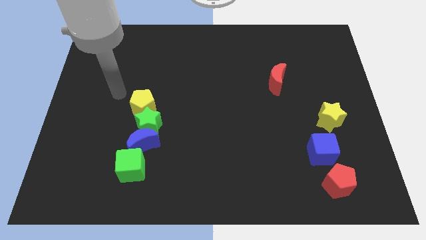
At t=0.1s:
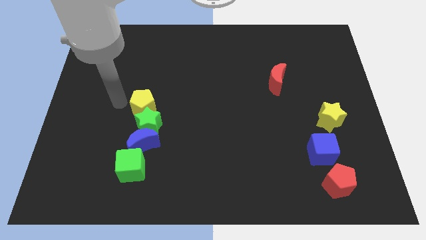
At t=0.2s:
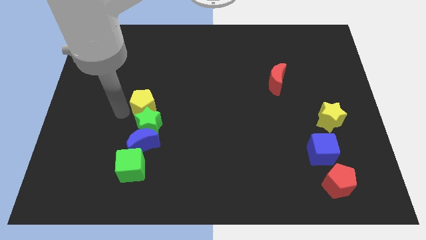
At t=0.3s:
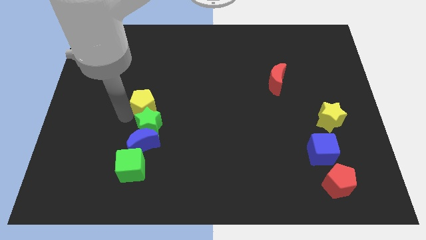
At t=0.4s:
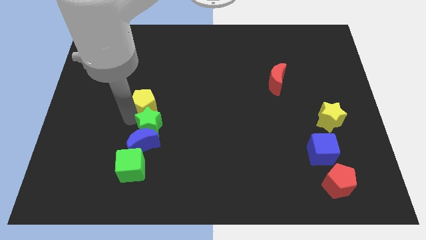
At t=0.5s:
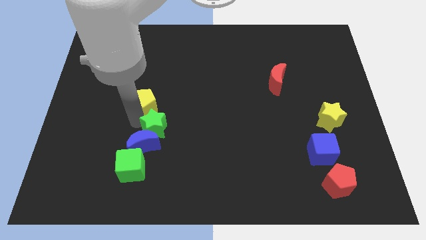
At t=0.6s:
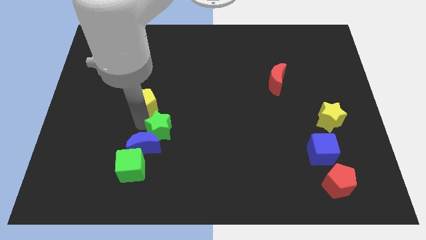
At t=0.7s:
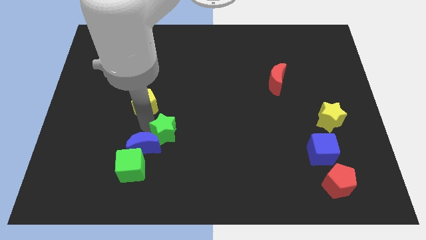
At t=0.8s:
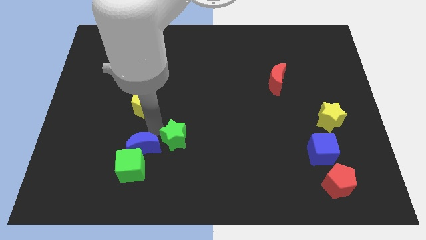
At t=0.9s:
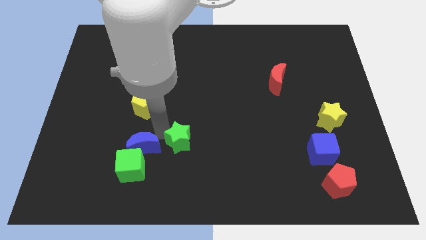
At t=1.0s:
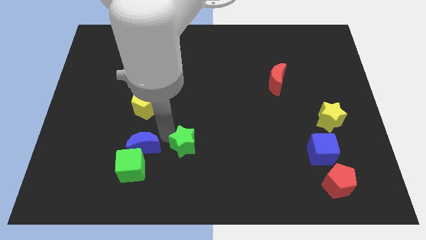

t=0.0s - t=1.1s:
separate the green star from the blue moon and yellow pentagon

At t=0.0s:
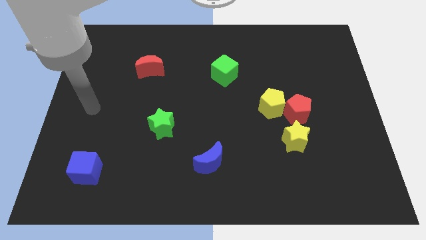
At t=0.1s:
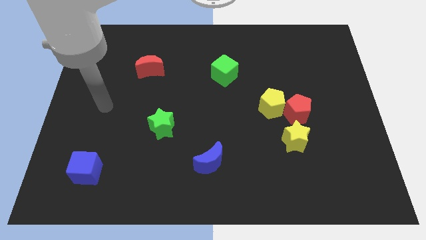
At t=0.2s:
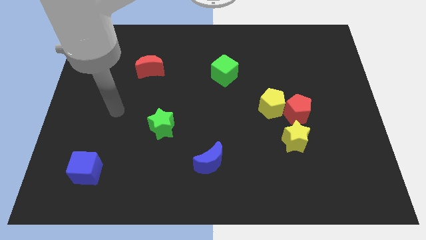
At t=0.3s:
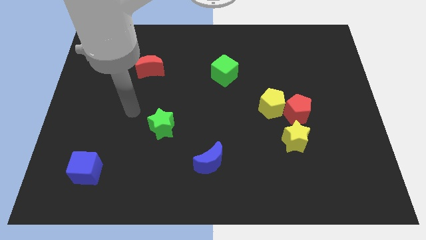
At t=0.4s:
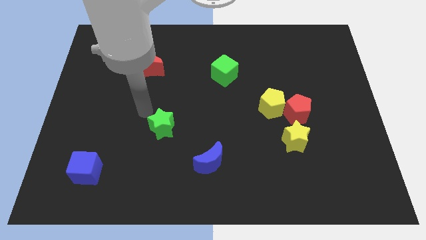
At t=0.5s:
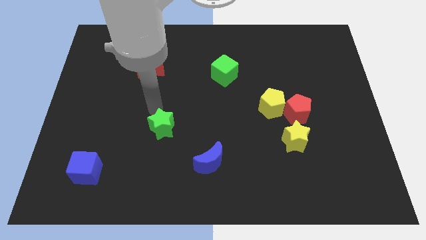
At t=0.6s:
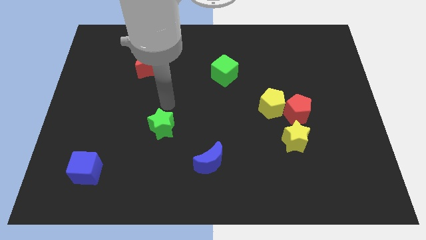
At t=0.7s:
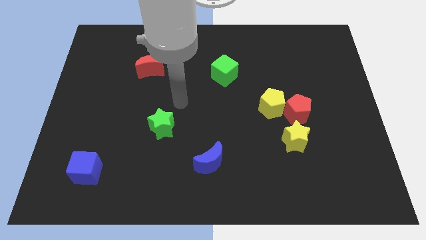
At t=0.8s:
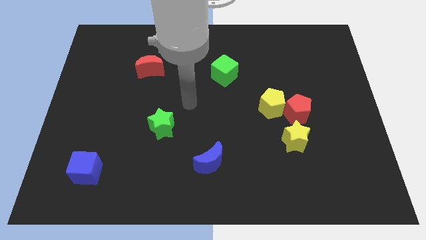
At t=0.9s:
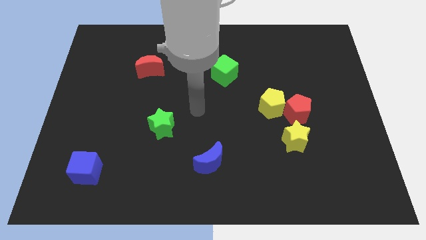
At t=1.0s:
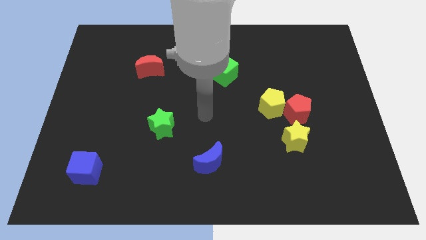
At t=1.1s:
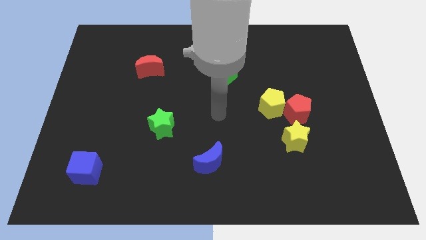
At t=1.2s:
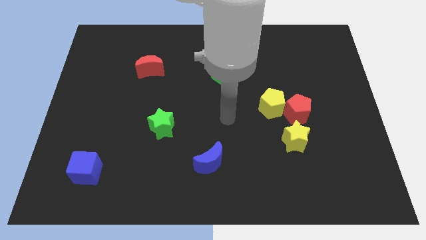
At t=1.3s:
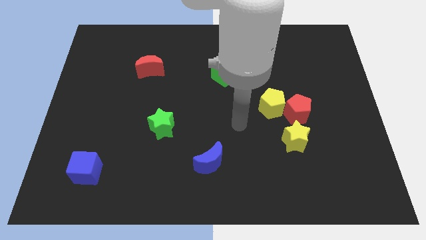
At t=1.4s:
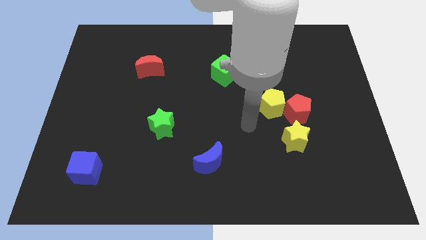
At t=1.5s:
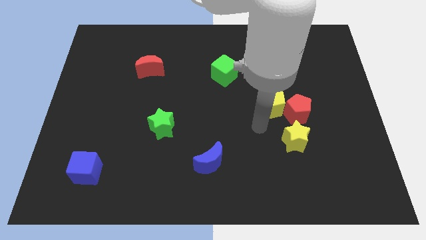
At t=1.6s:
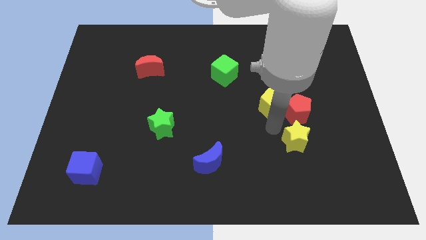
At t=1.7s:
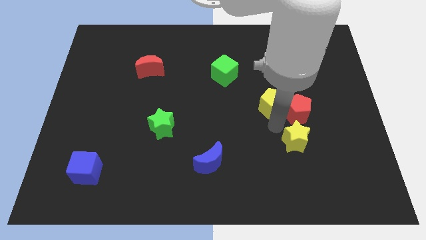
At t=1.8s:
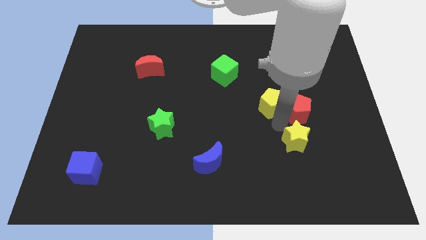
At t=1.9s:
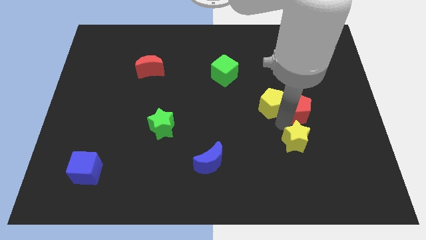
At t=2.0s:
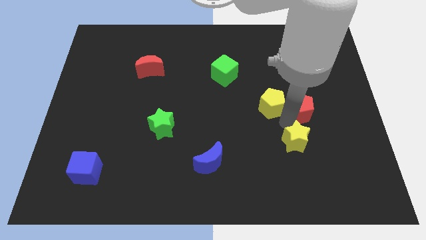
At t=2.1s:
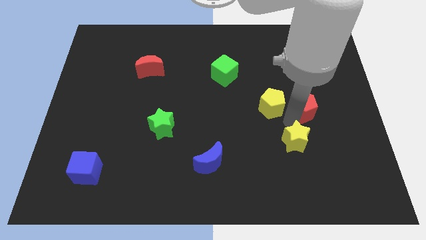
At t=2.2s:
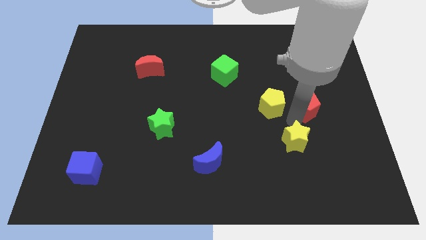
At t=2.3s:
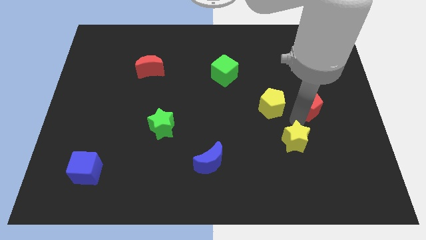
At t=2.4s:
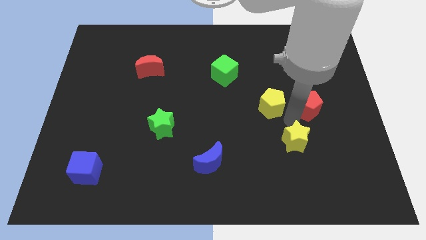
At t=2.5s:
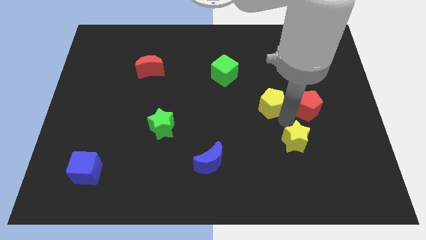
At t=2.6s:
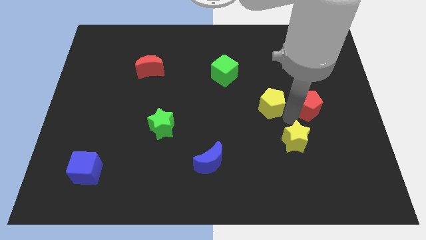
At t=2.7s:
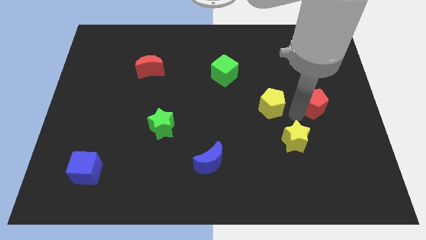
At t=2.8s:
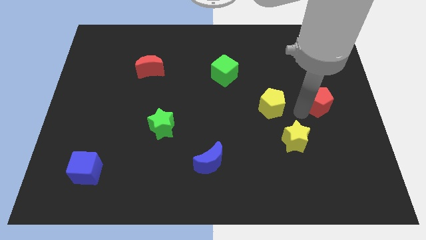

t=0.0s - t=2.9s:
separate the red pentagon from the yellow pentagon and yellow star

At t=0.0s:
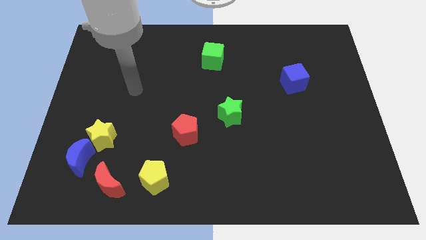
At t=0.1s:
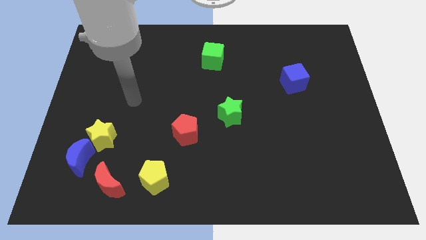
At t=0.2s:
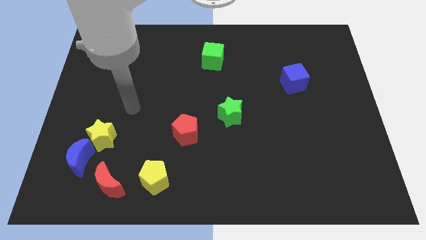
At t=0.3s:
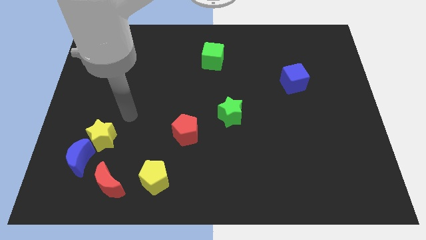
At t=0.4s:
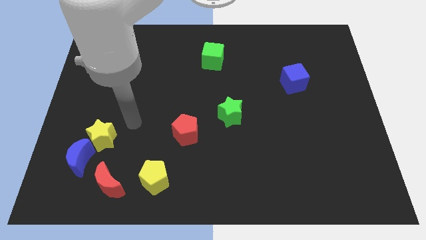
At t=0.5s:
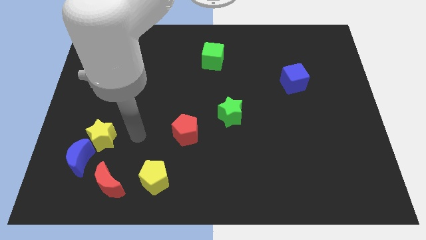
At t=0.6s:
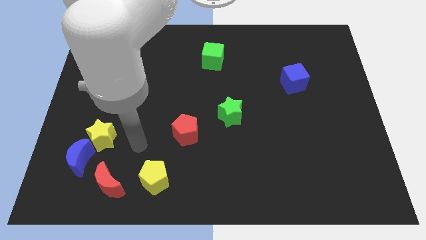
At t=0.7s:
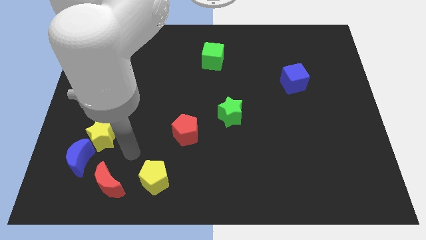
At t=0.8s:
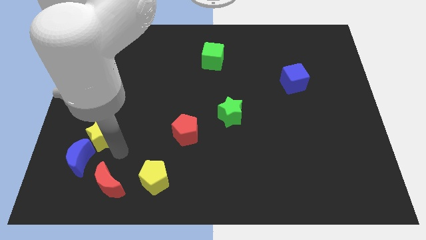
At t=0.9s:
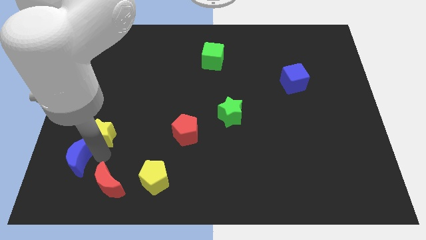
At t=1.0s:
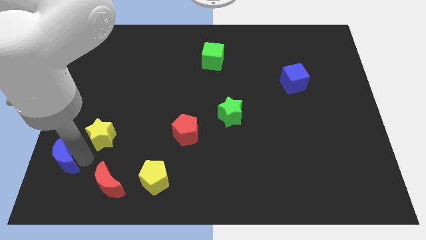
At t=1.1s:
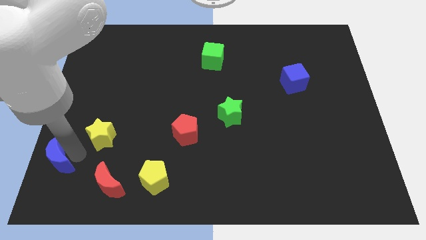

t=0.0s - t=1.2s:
separate the yellow star from the blue moon

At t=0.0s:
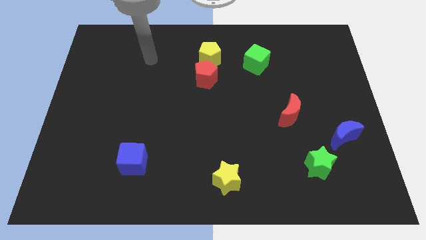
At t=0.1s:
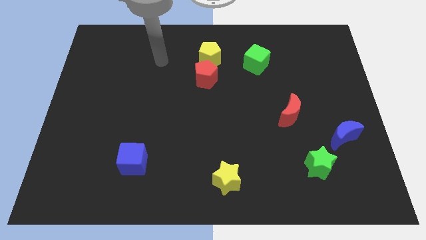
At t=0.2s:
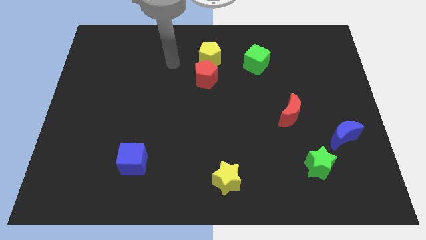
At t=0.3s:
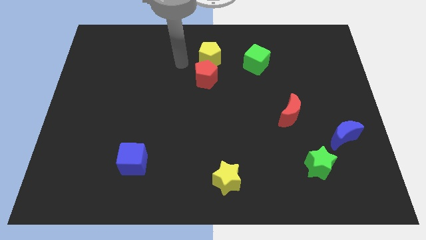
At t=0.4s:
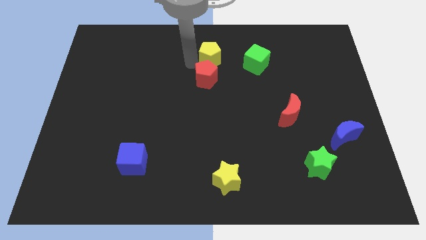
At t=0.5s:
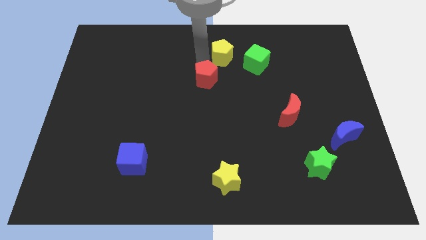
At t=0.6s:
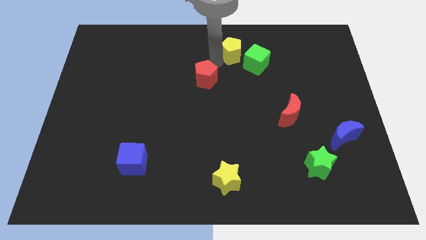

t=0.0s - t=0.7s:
pull the red pentagon apart from the yellow pentagon

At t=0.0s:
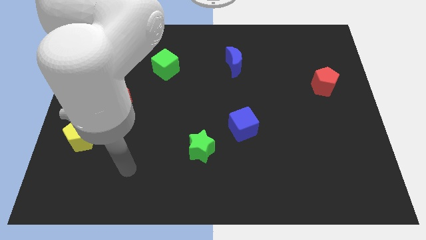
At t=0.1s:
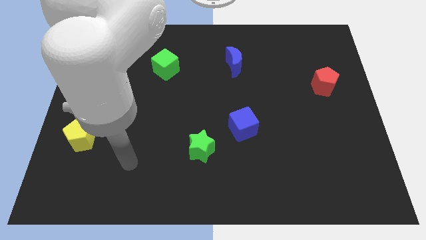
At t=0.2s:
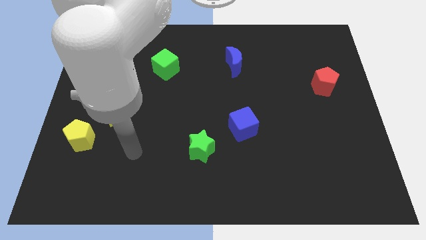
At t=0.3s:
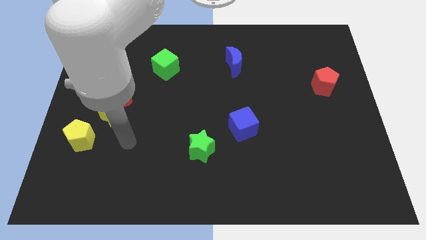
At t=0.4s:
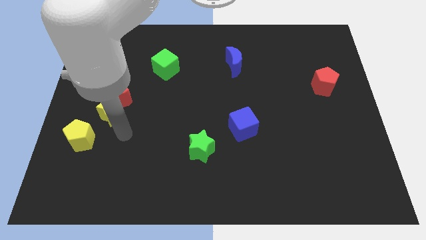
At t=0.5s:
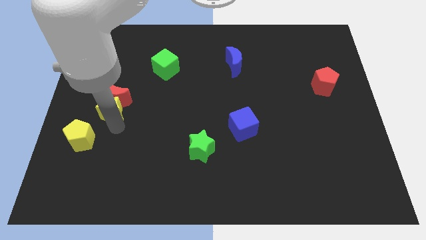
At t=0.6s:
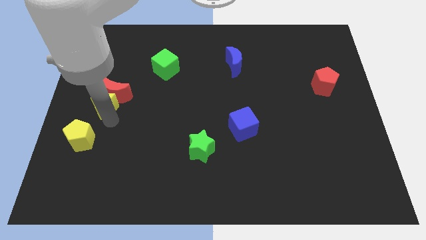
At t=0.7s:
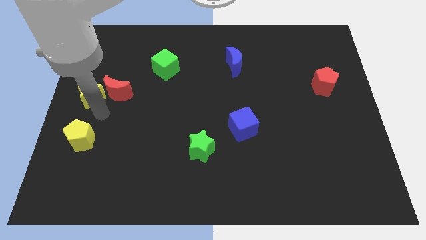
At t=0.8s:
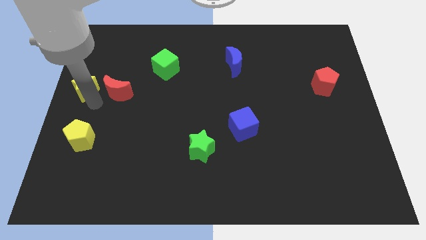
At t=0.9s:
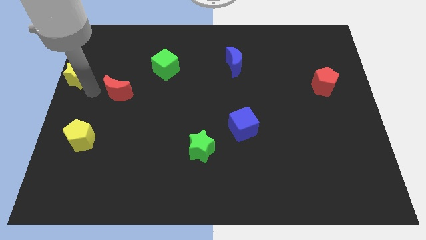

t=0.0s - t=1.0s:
move the red moon away from the yellow star

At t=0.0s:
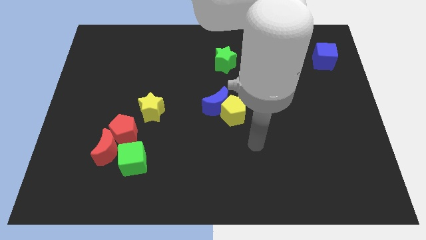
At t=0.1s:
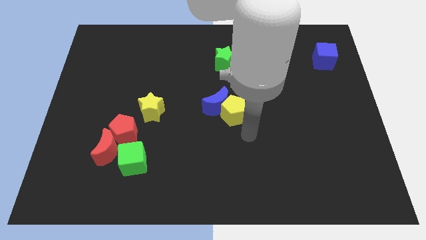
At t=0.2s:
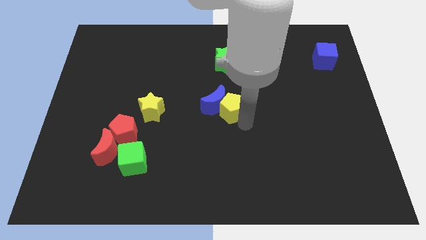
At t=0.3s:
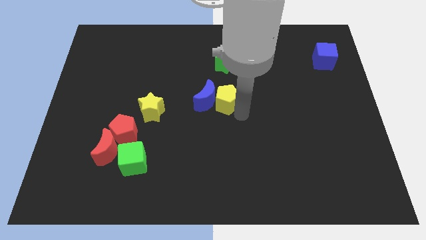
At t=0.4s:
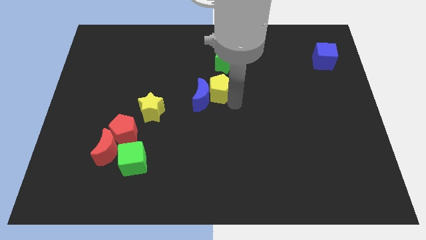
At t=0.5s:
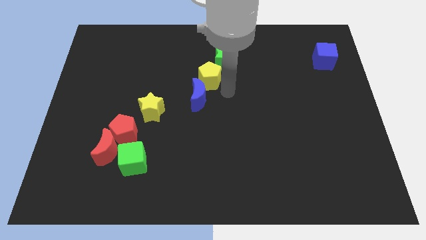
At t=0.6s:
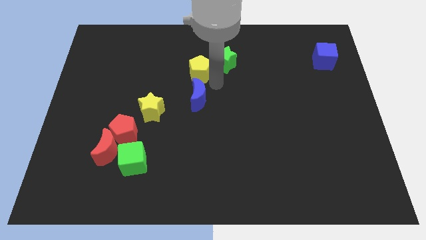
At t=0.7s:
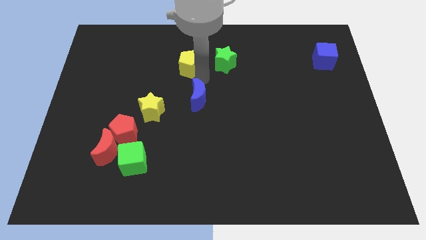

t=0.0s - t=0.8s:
move the blue moon away from the yellow pentagon

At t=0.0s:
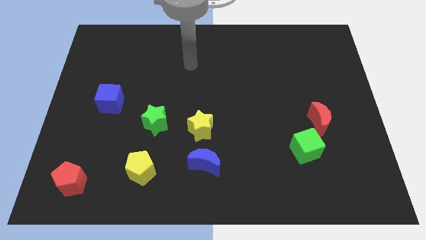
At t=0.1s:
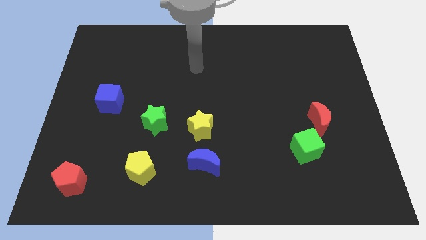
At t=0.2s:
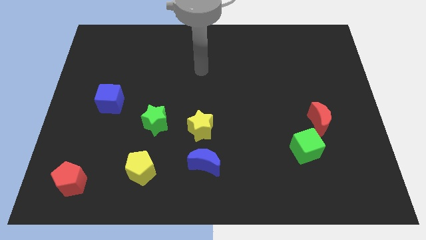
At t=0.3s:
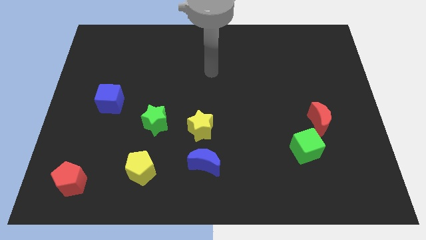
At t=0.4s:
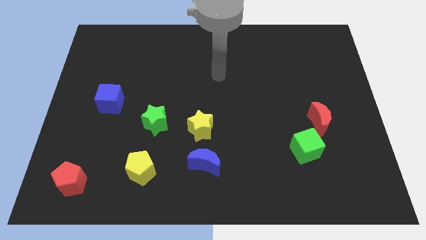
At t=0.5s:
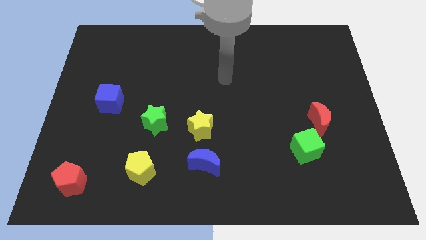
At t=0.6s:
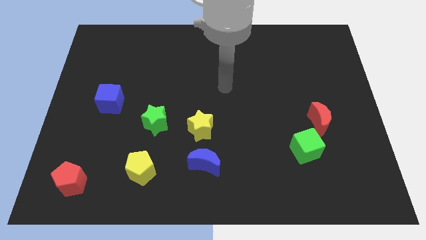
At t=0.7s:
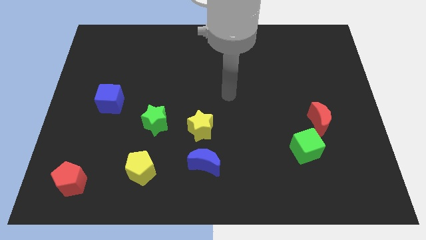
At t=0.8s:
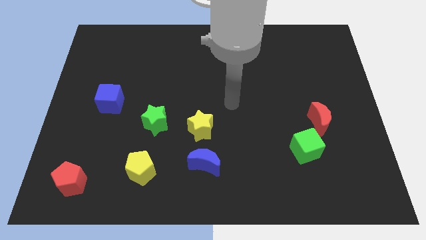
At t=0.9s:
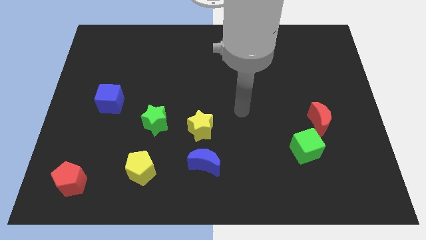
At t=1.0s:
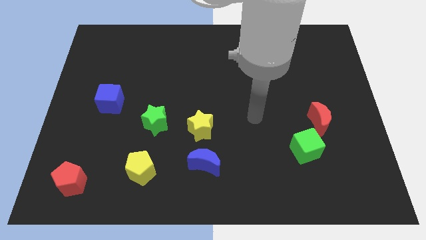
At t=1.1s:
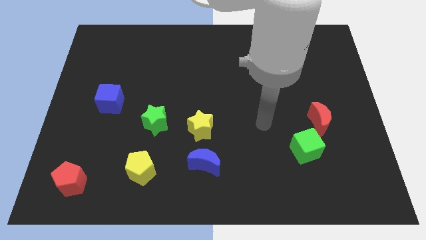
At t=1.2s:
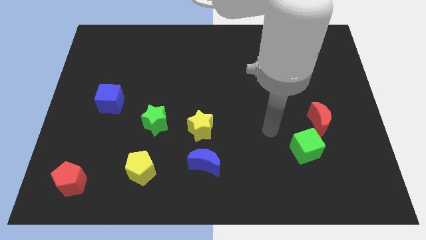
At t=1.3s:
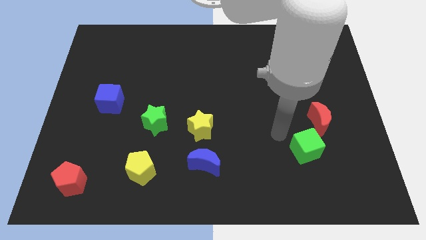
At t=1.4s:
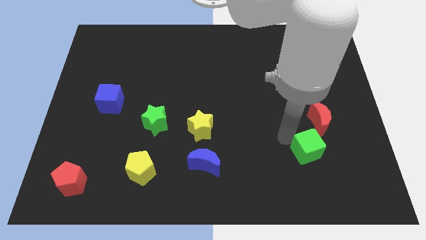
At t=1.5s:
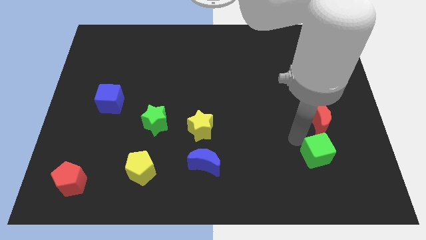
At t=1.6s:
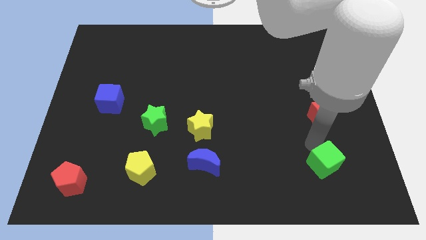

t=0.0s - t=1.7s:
pull the red moon apart from the green cube

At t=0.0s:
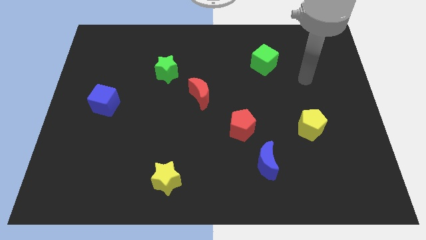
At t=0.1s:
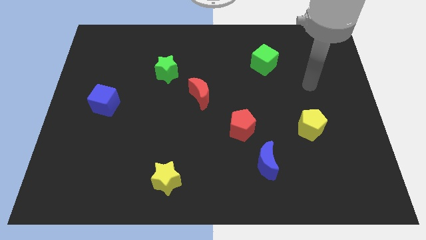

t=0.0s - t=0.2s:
separate the red pentagon from the blue moon
